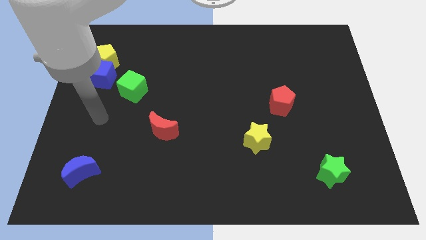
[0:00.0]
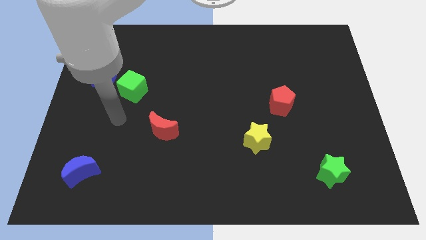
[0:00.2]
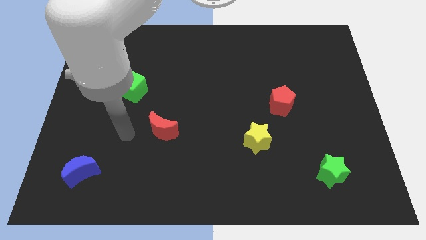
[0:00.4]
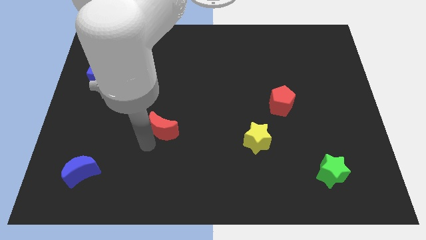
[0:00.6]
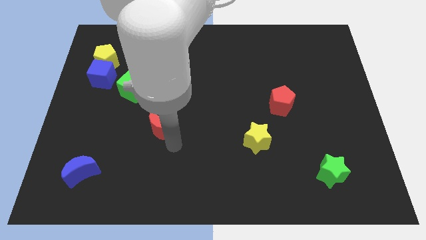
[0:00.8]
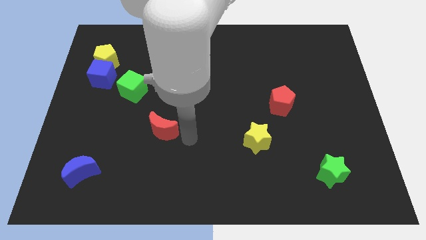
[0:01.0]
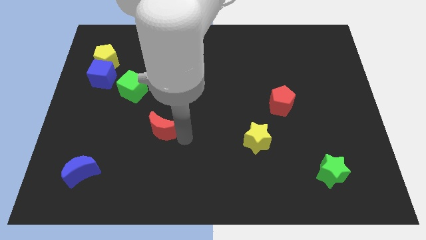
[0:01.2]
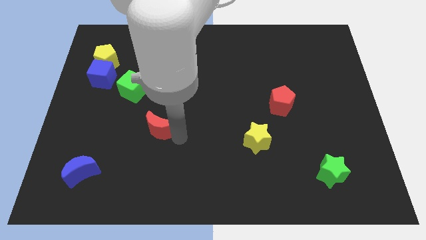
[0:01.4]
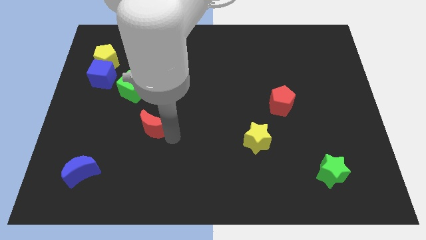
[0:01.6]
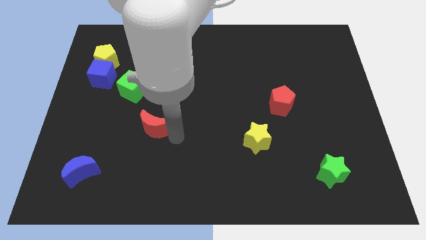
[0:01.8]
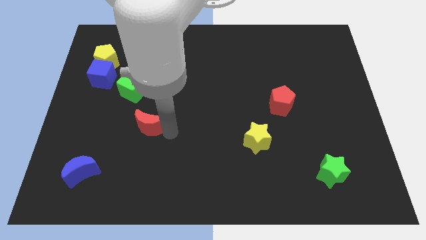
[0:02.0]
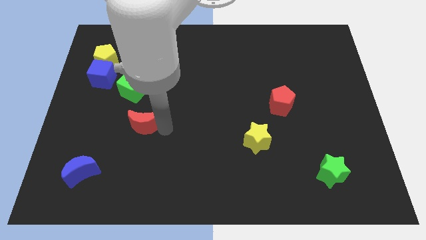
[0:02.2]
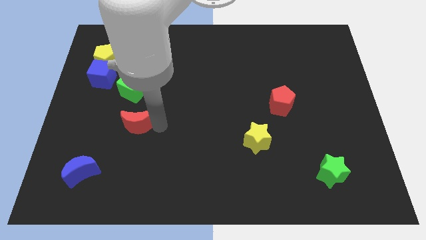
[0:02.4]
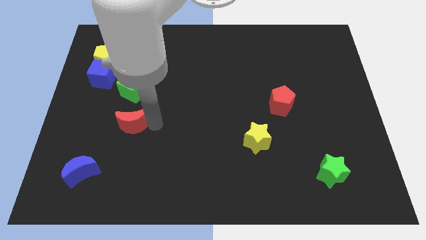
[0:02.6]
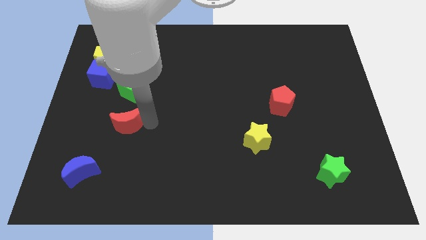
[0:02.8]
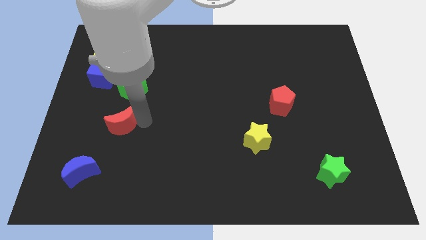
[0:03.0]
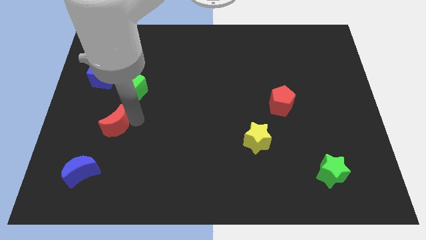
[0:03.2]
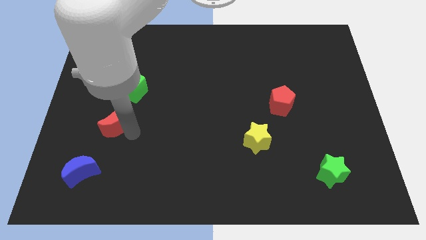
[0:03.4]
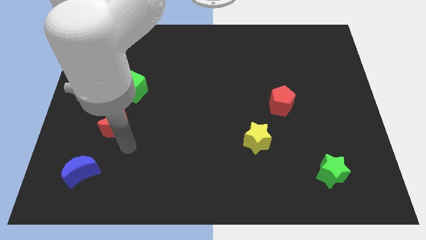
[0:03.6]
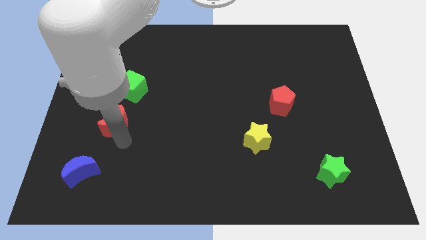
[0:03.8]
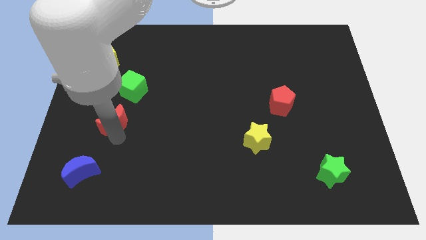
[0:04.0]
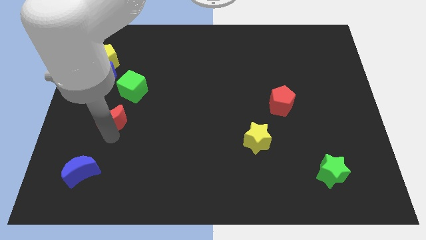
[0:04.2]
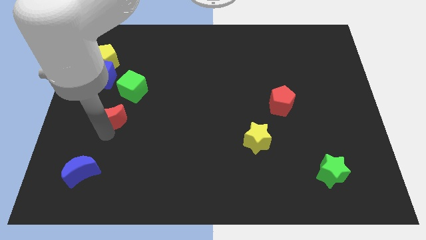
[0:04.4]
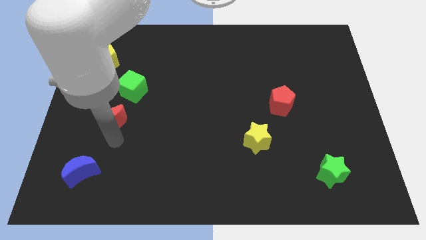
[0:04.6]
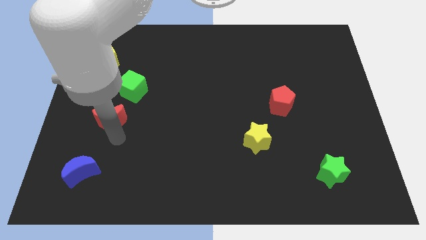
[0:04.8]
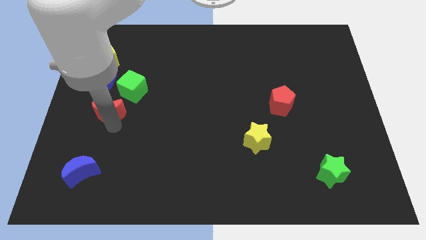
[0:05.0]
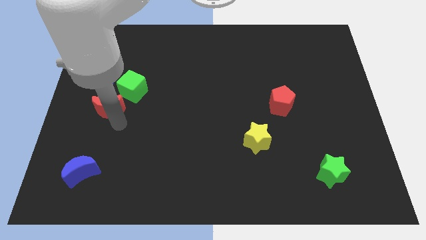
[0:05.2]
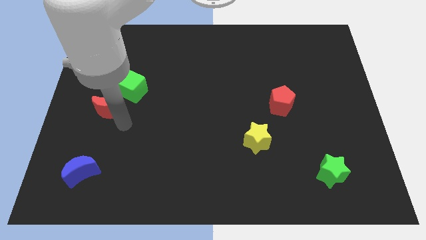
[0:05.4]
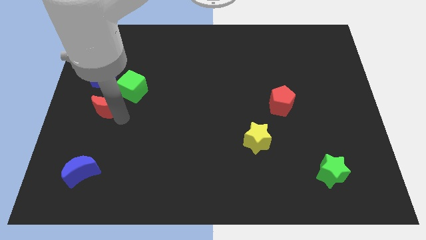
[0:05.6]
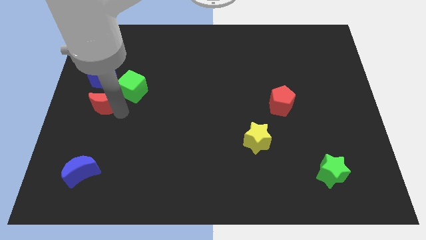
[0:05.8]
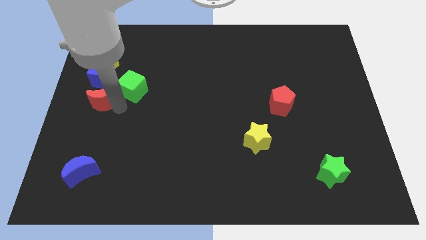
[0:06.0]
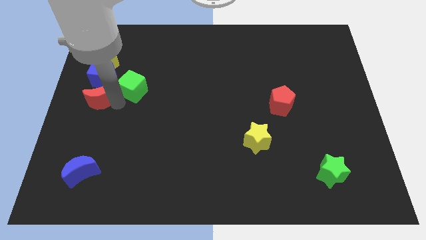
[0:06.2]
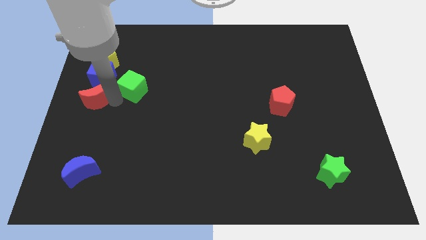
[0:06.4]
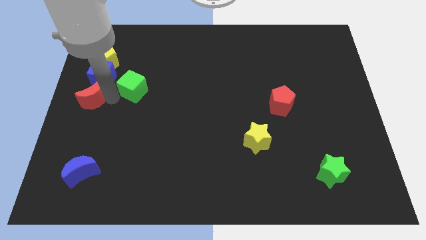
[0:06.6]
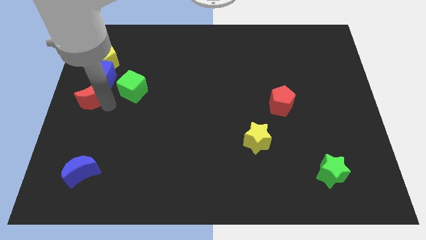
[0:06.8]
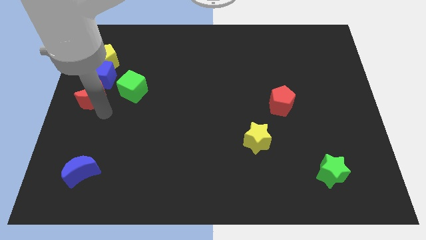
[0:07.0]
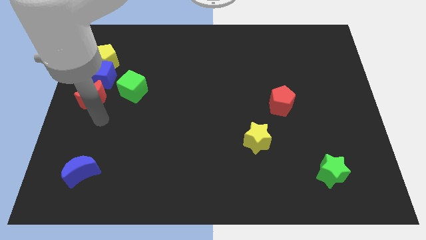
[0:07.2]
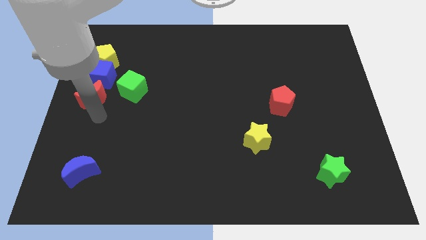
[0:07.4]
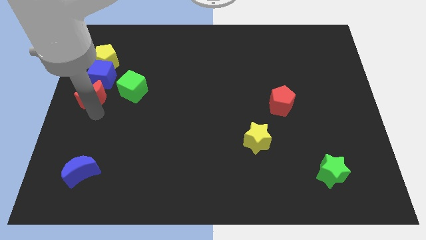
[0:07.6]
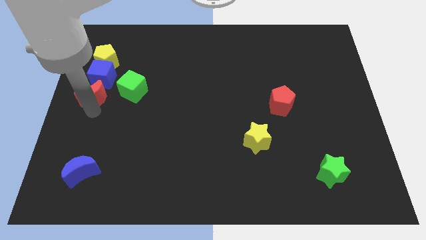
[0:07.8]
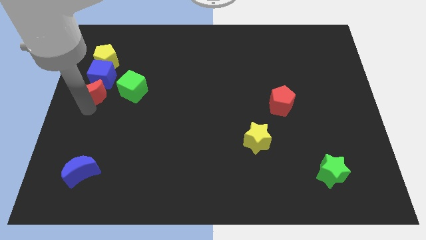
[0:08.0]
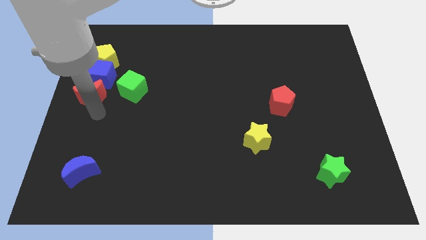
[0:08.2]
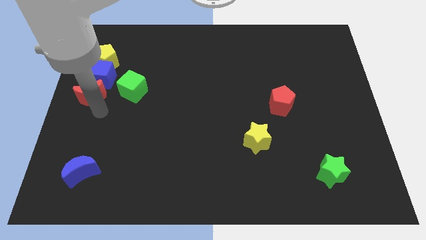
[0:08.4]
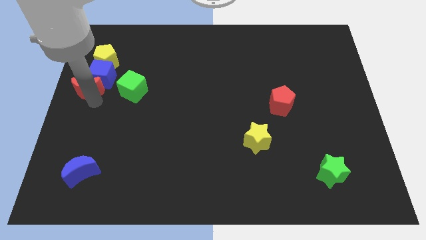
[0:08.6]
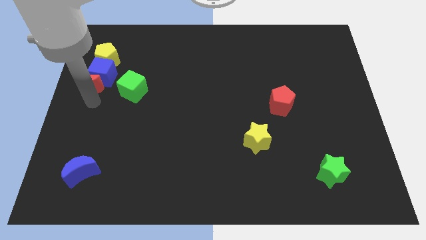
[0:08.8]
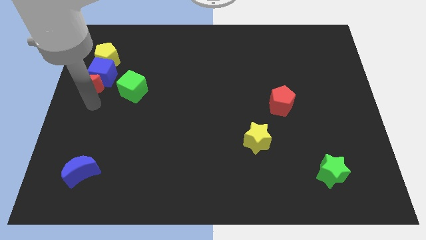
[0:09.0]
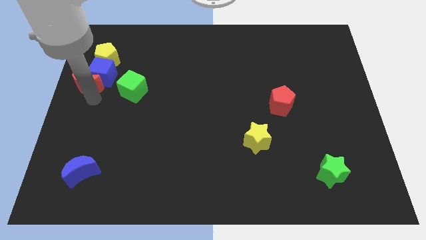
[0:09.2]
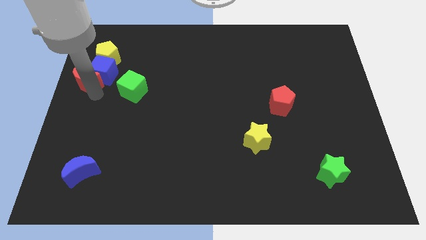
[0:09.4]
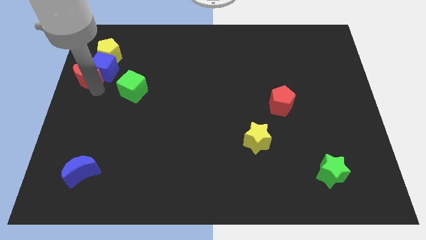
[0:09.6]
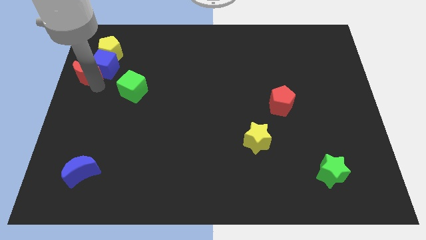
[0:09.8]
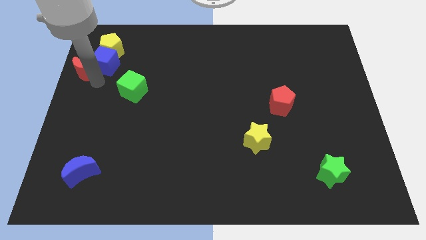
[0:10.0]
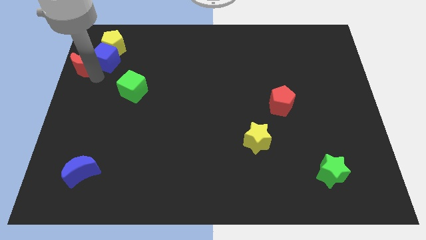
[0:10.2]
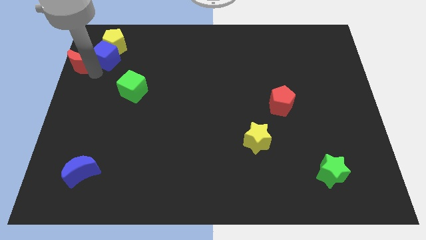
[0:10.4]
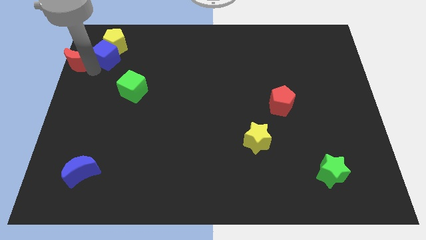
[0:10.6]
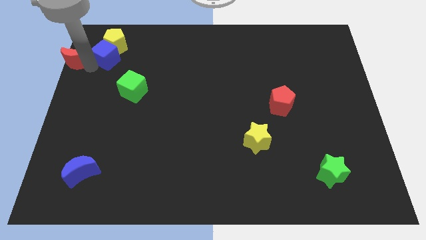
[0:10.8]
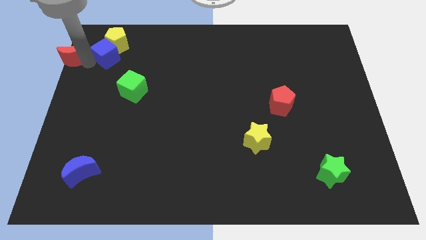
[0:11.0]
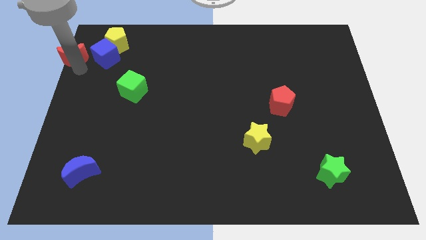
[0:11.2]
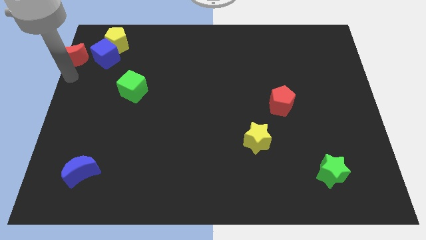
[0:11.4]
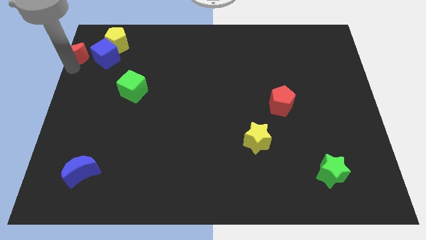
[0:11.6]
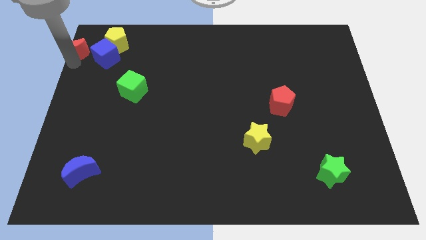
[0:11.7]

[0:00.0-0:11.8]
put the red moon to the upper left corner
